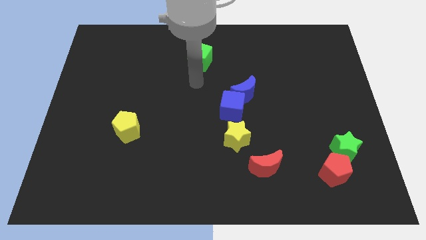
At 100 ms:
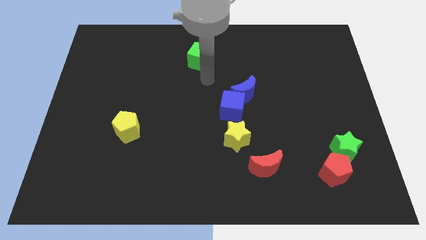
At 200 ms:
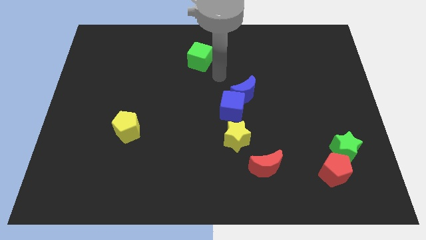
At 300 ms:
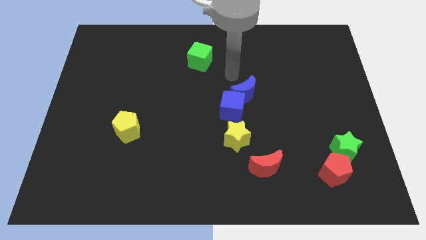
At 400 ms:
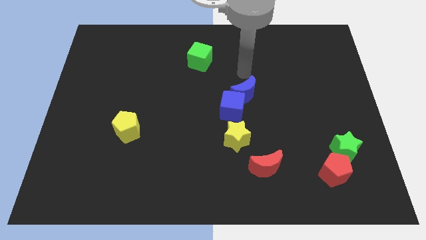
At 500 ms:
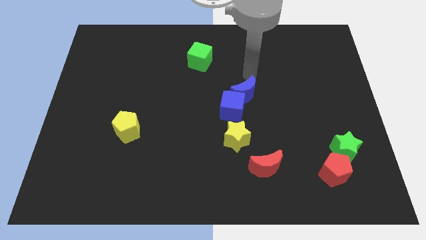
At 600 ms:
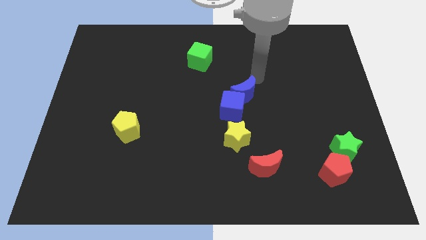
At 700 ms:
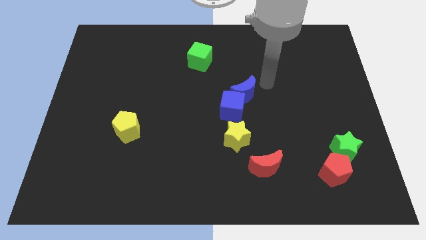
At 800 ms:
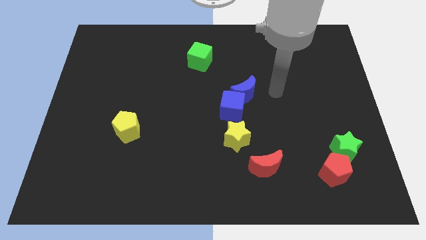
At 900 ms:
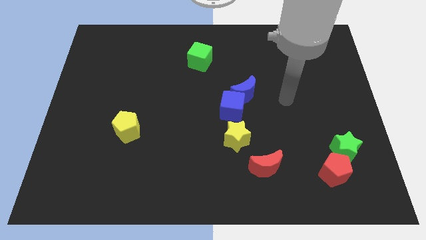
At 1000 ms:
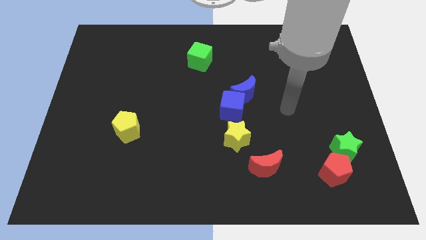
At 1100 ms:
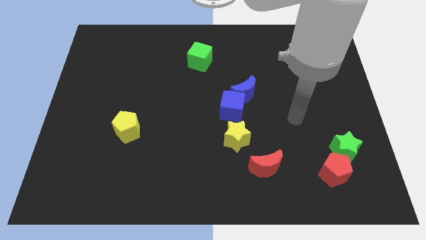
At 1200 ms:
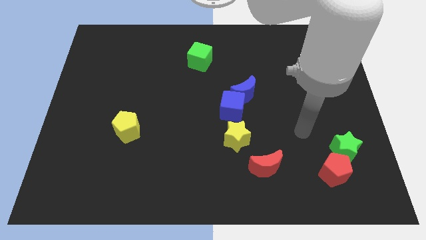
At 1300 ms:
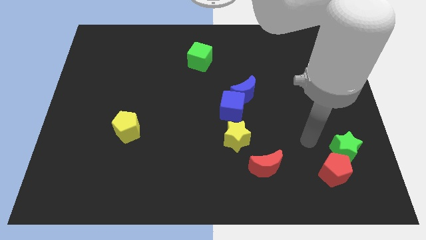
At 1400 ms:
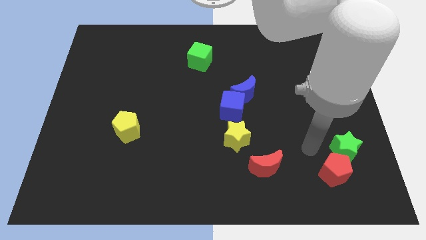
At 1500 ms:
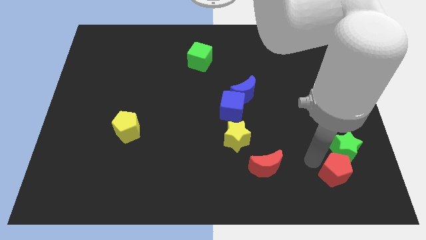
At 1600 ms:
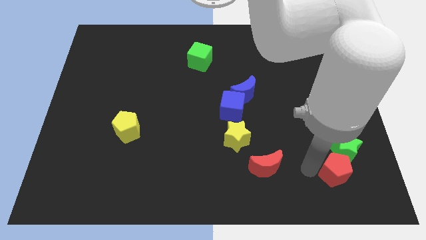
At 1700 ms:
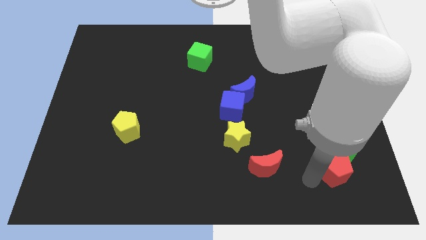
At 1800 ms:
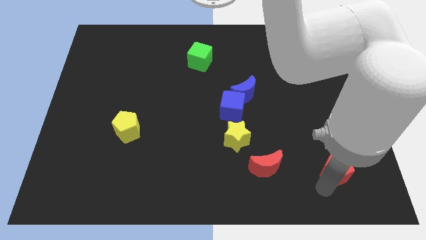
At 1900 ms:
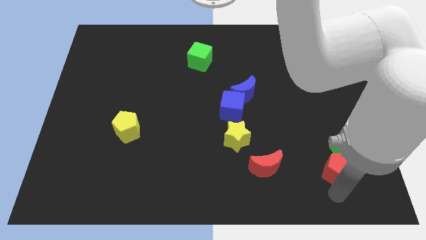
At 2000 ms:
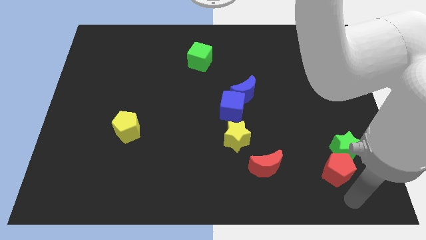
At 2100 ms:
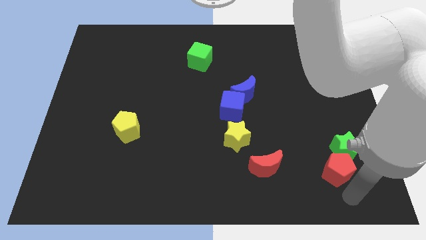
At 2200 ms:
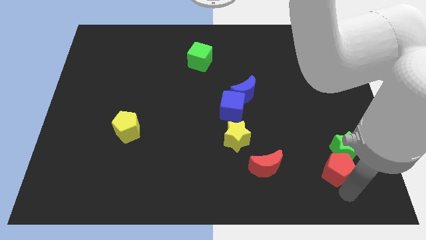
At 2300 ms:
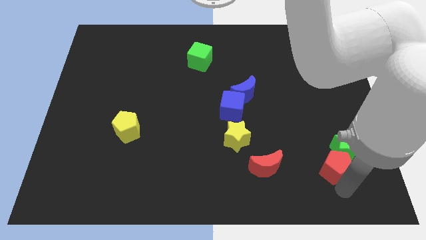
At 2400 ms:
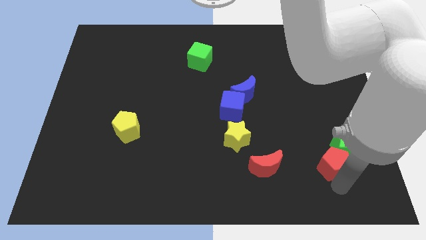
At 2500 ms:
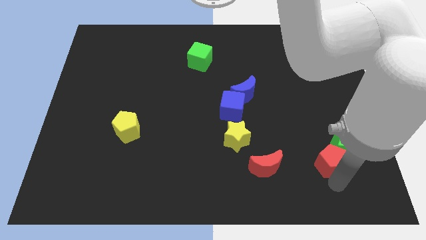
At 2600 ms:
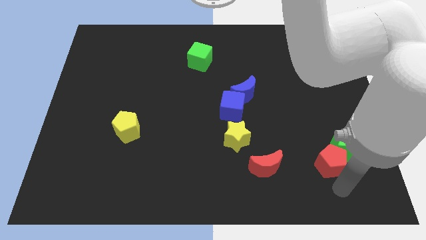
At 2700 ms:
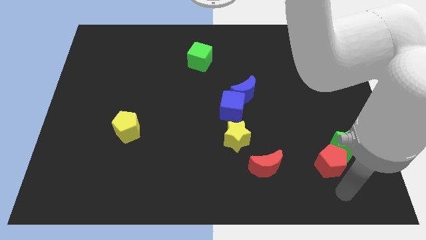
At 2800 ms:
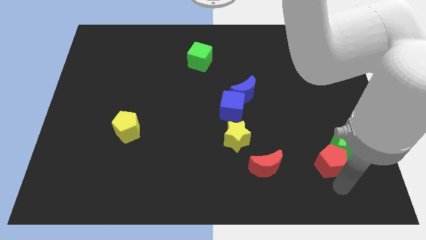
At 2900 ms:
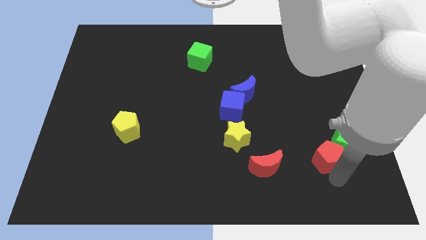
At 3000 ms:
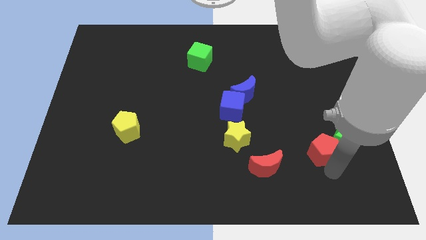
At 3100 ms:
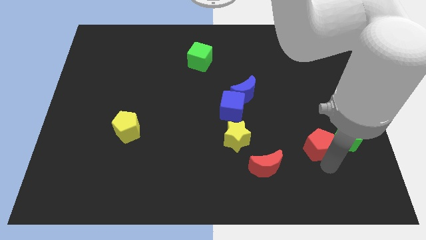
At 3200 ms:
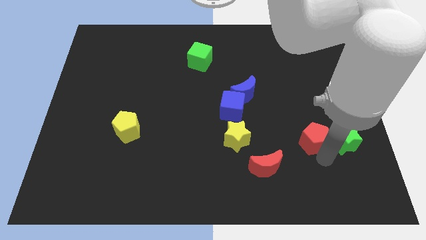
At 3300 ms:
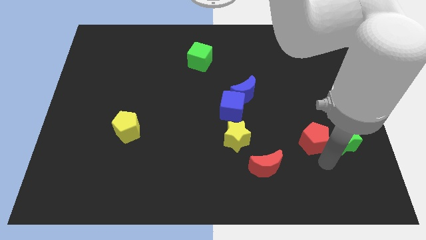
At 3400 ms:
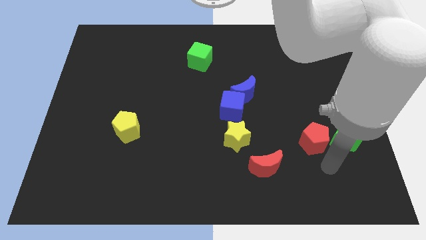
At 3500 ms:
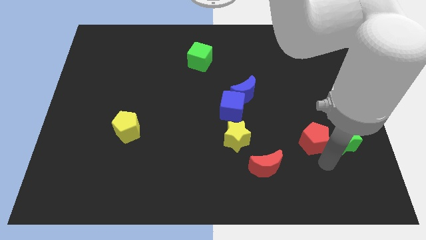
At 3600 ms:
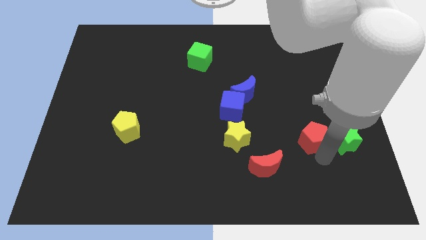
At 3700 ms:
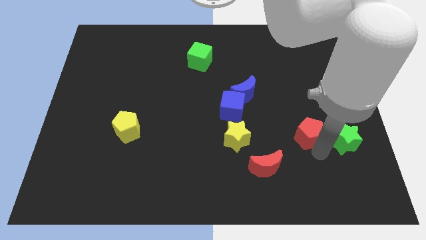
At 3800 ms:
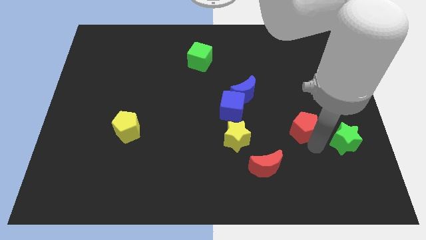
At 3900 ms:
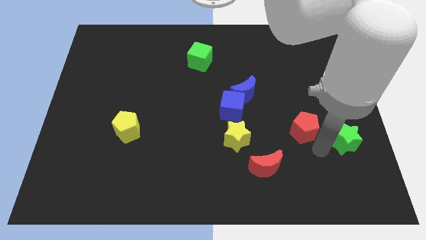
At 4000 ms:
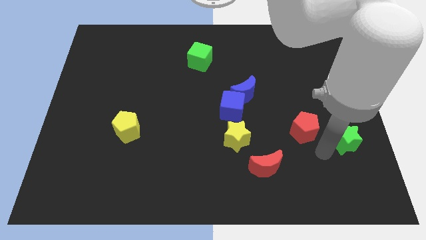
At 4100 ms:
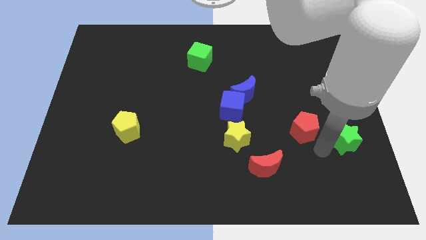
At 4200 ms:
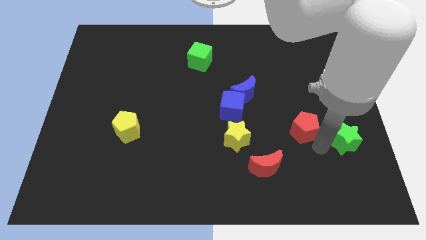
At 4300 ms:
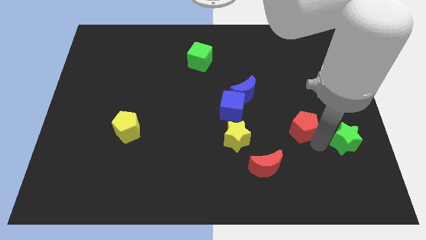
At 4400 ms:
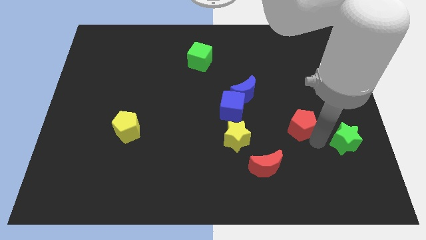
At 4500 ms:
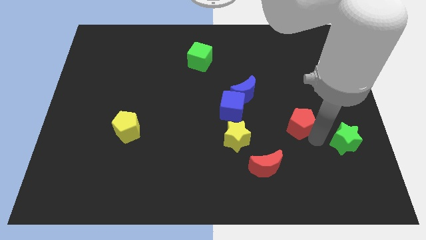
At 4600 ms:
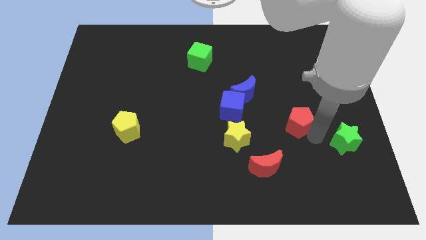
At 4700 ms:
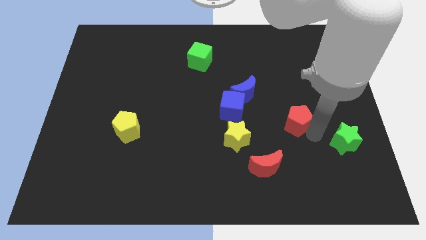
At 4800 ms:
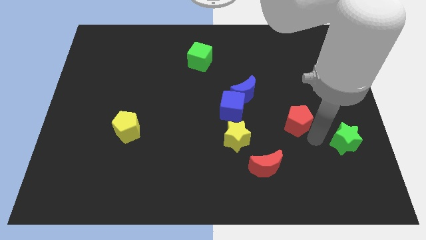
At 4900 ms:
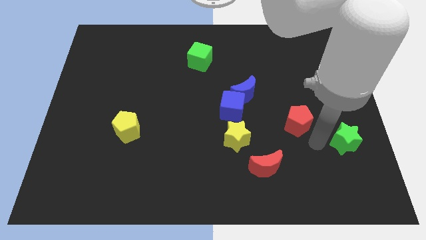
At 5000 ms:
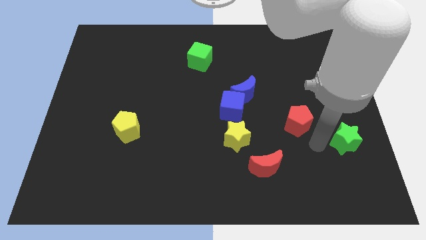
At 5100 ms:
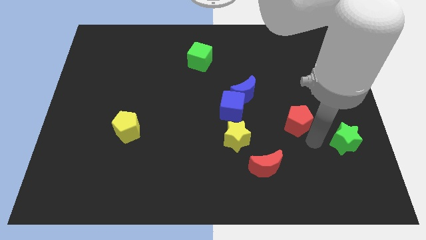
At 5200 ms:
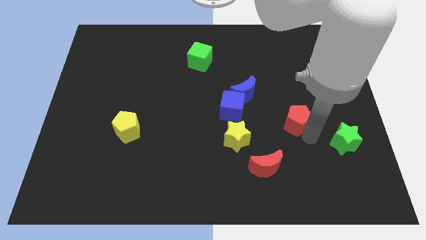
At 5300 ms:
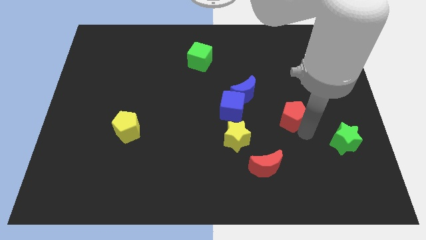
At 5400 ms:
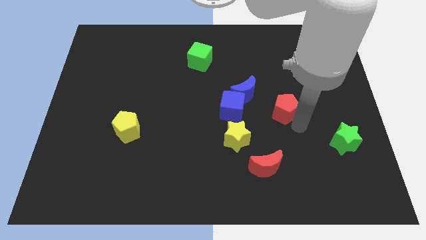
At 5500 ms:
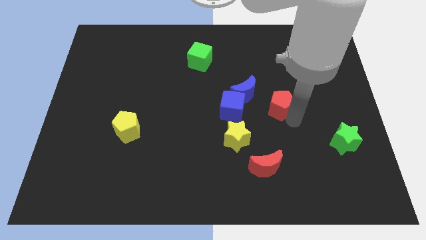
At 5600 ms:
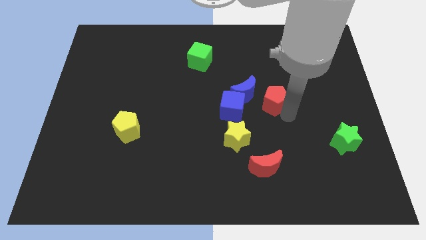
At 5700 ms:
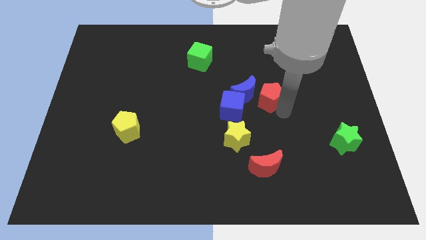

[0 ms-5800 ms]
slide the red pentagon up and then to the left

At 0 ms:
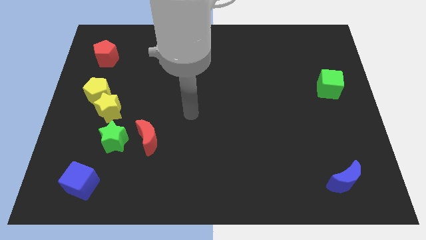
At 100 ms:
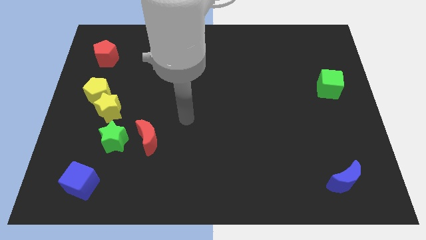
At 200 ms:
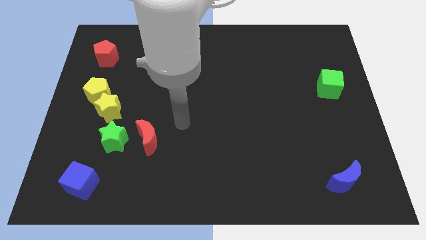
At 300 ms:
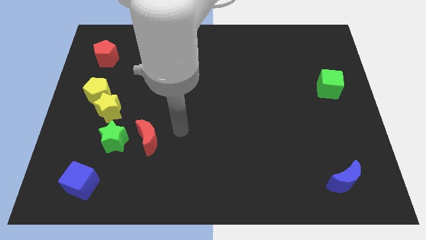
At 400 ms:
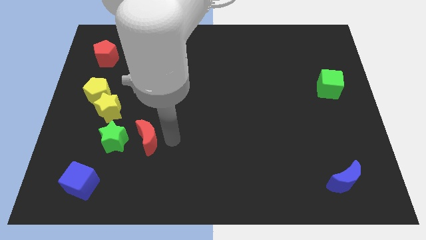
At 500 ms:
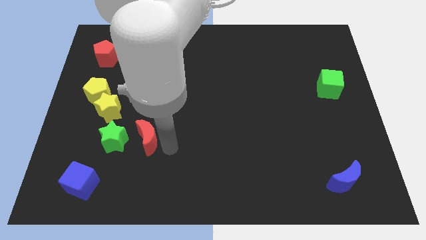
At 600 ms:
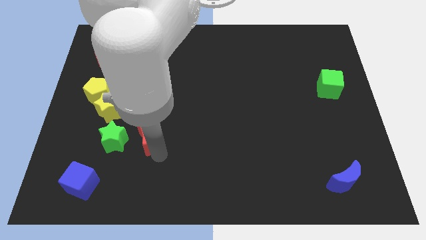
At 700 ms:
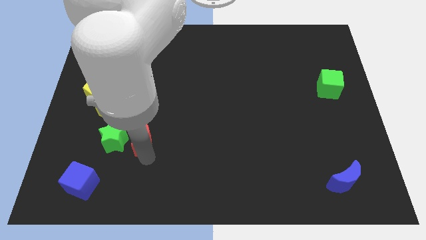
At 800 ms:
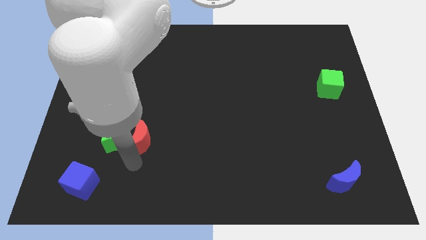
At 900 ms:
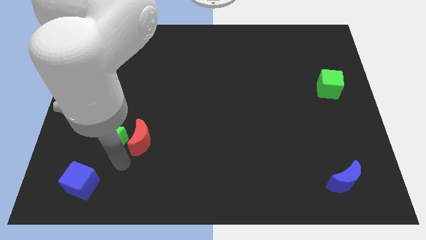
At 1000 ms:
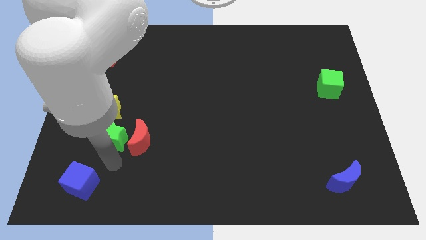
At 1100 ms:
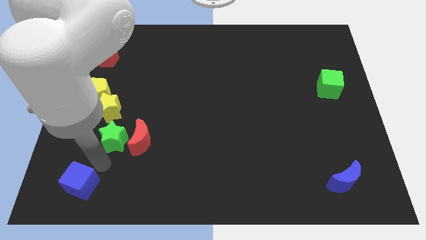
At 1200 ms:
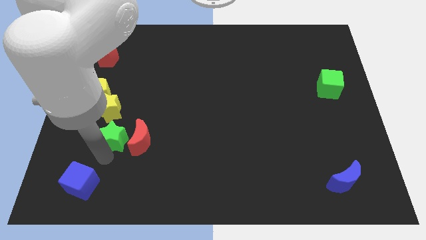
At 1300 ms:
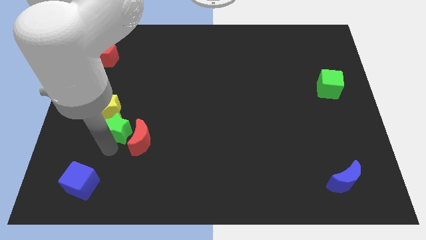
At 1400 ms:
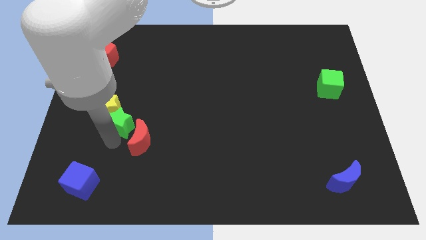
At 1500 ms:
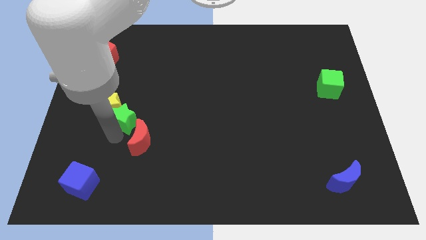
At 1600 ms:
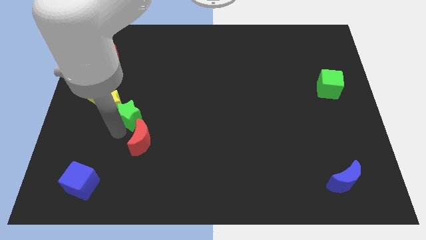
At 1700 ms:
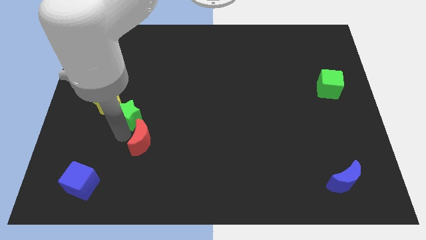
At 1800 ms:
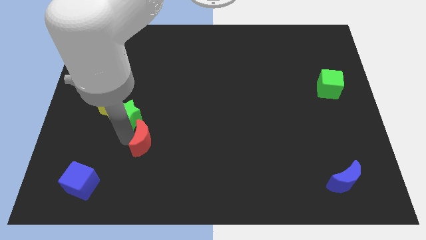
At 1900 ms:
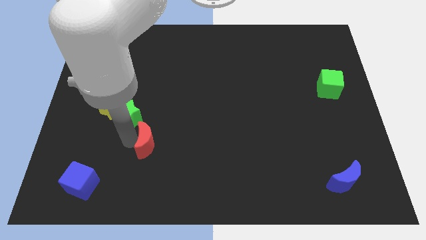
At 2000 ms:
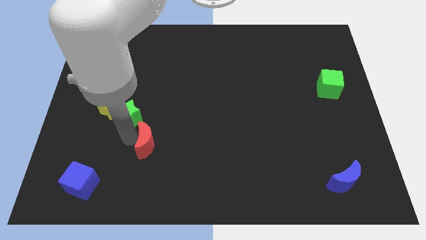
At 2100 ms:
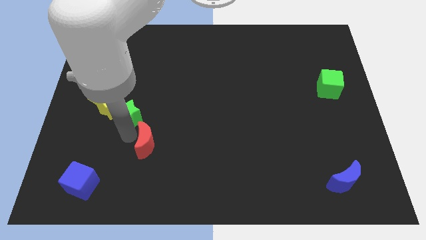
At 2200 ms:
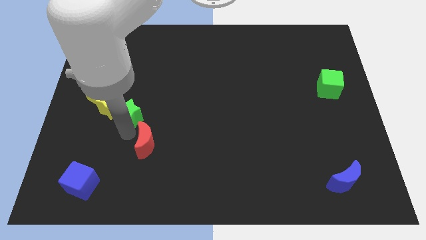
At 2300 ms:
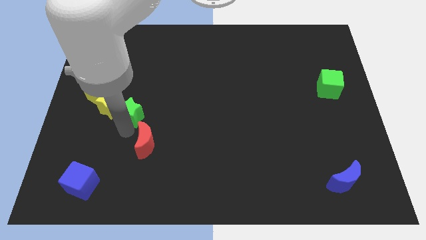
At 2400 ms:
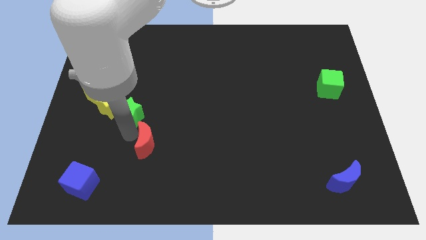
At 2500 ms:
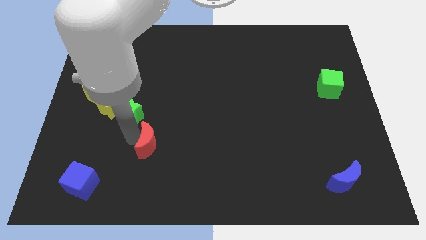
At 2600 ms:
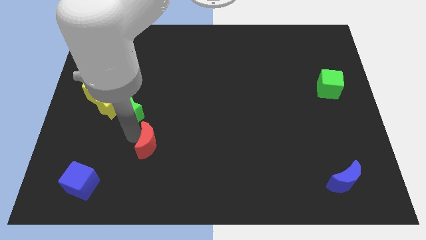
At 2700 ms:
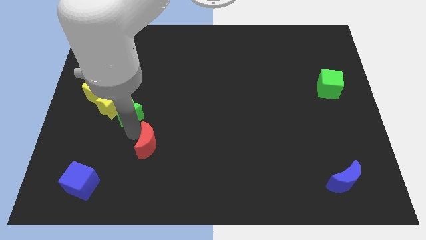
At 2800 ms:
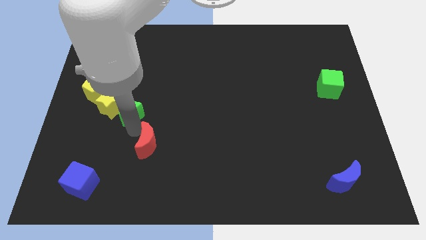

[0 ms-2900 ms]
move the green star a bit up
